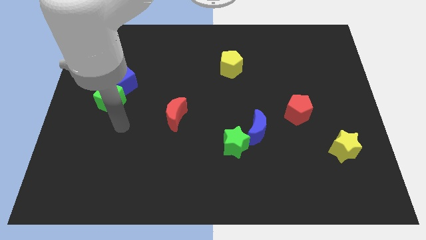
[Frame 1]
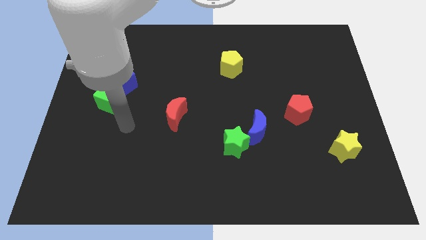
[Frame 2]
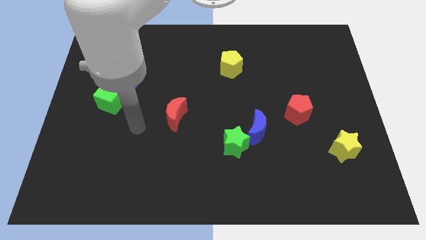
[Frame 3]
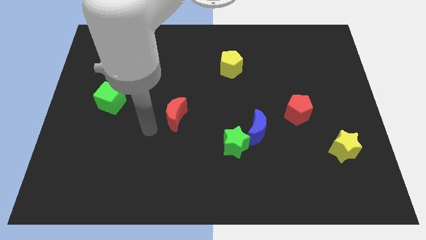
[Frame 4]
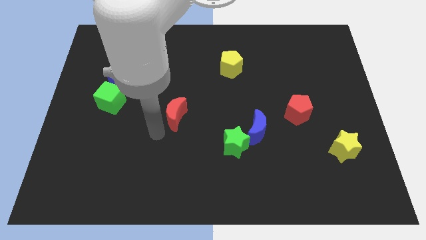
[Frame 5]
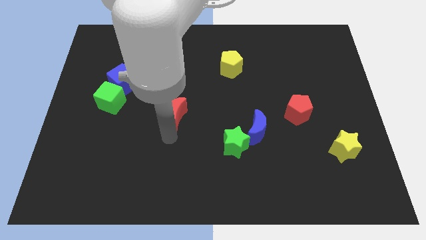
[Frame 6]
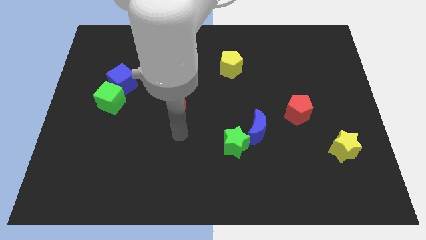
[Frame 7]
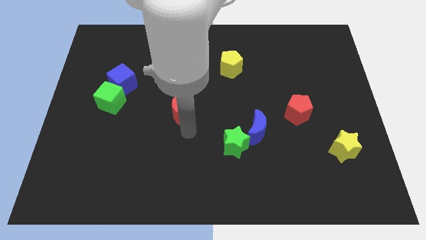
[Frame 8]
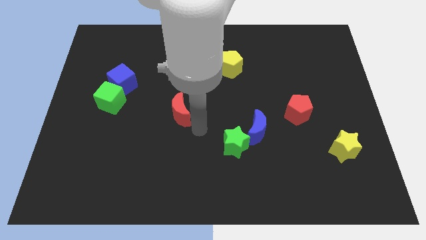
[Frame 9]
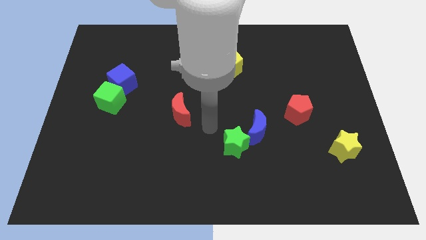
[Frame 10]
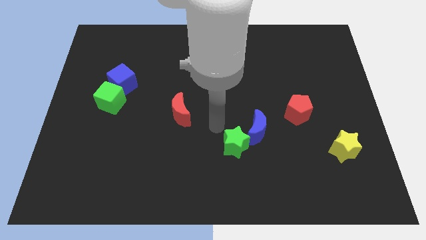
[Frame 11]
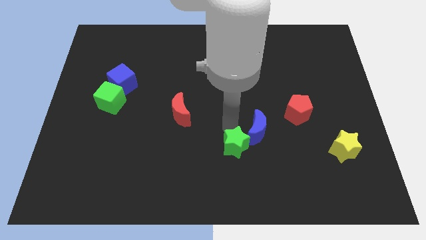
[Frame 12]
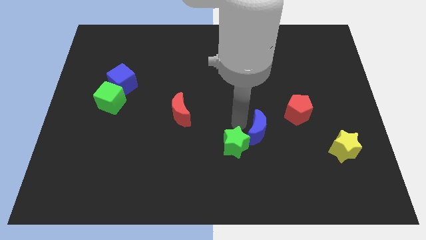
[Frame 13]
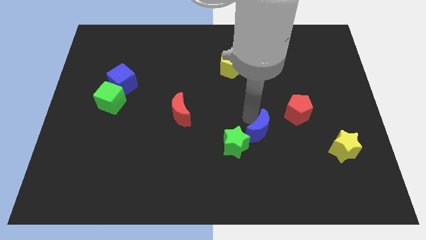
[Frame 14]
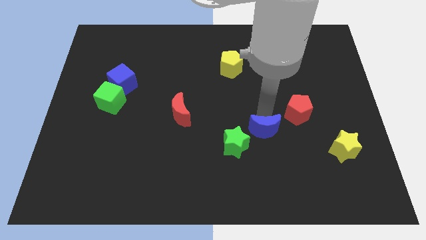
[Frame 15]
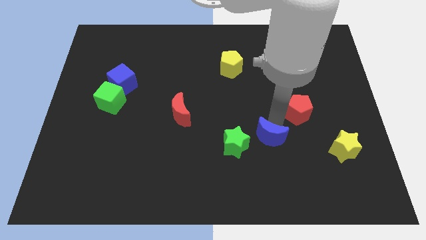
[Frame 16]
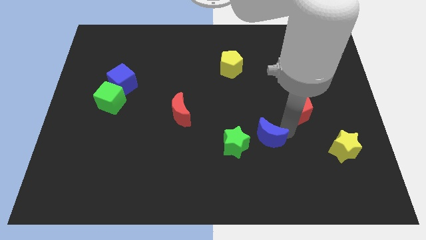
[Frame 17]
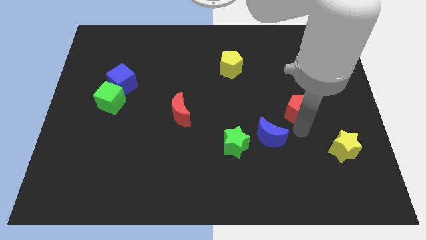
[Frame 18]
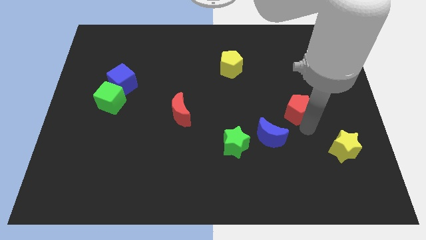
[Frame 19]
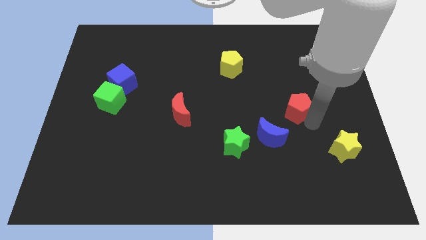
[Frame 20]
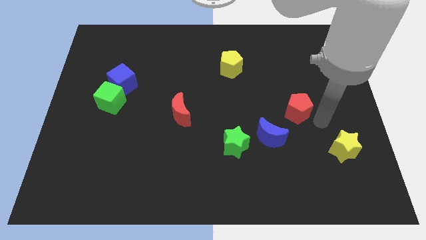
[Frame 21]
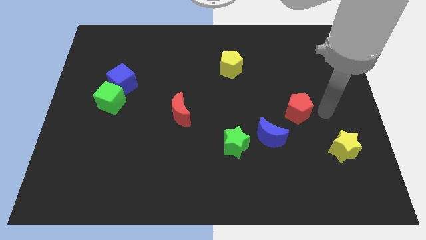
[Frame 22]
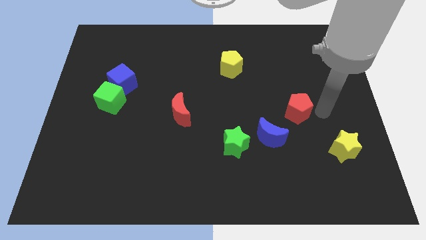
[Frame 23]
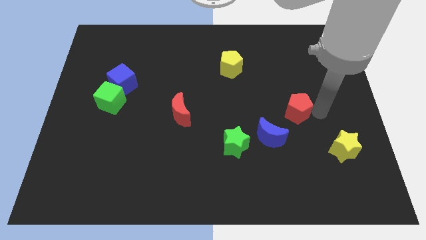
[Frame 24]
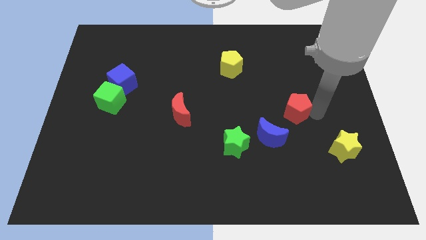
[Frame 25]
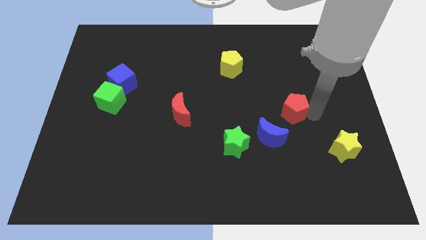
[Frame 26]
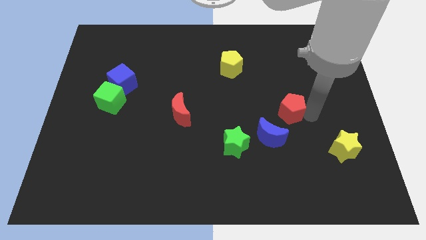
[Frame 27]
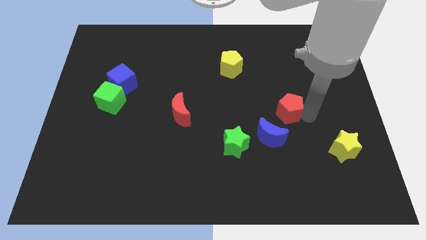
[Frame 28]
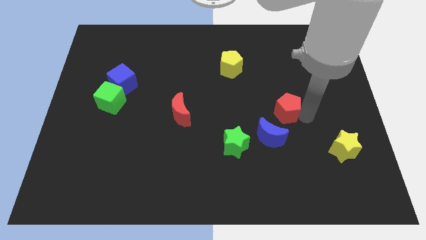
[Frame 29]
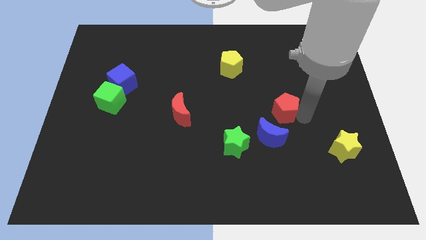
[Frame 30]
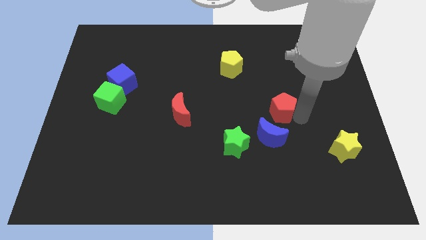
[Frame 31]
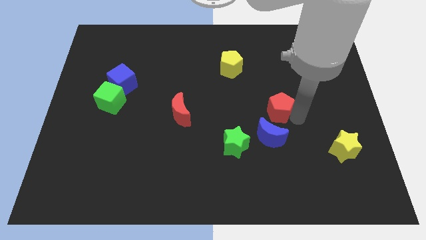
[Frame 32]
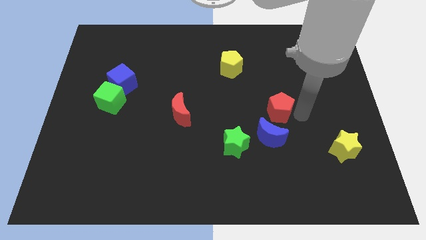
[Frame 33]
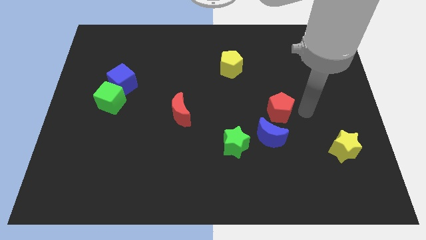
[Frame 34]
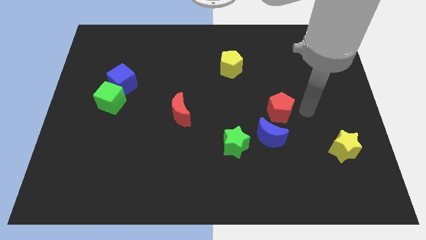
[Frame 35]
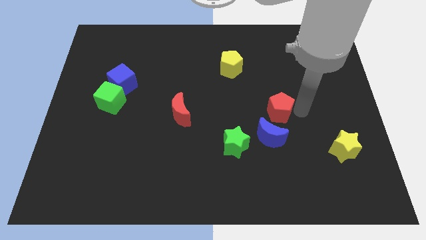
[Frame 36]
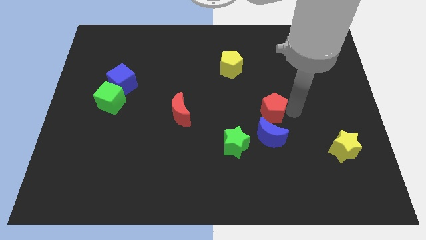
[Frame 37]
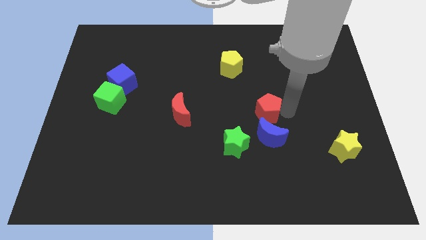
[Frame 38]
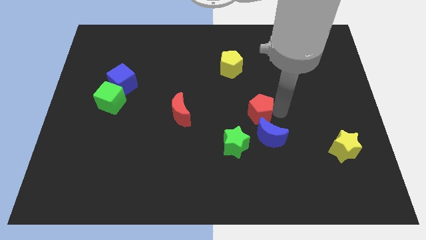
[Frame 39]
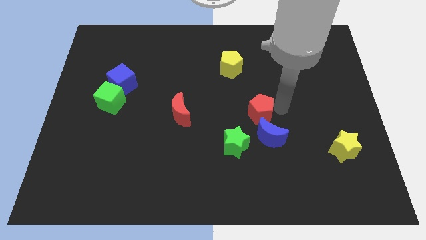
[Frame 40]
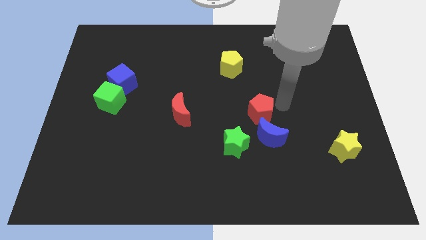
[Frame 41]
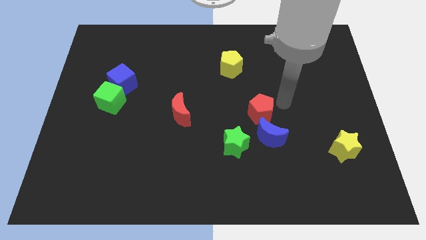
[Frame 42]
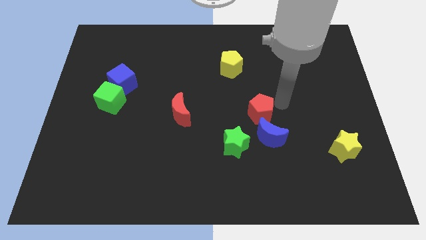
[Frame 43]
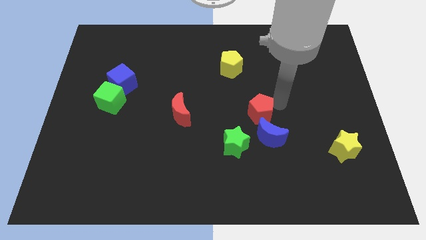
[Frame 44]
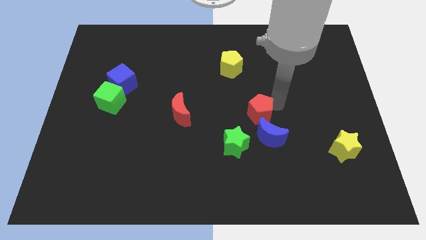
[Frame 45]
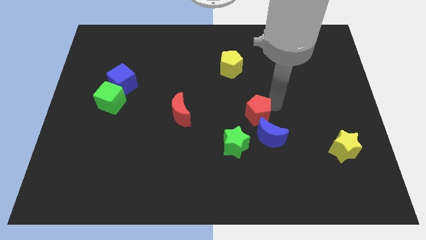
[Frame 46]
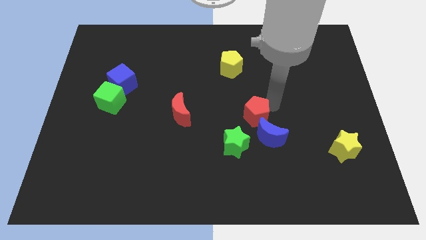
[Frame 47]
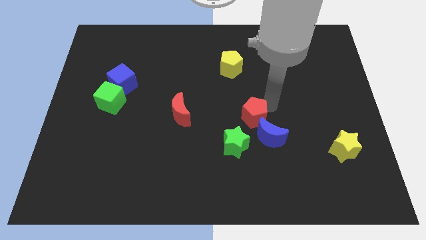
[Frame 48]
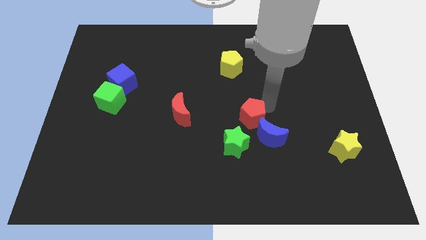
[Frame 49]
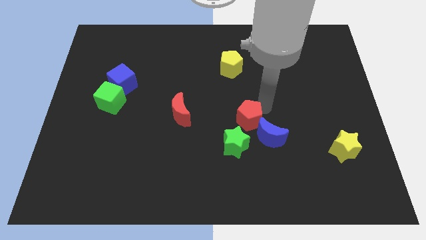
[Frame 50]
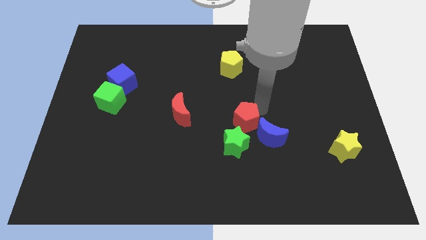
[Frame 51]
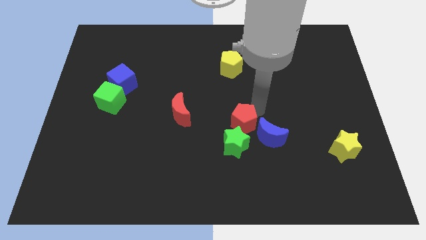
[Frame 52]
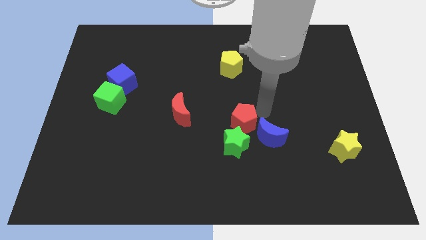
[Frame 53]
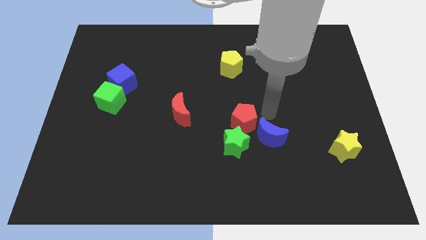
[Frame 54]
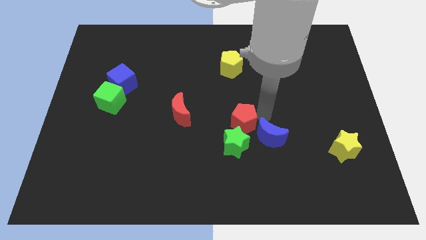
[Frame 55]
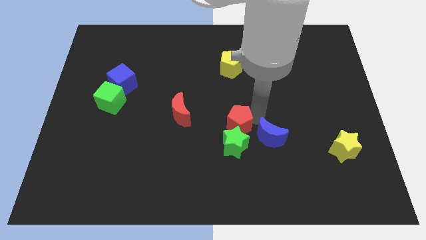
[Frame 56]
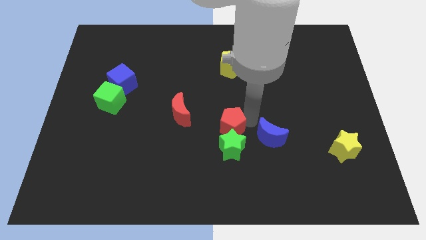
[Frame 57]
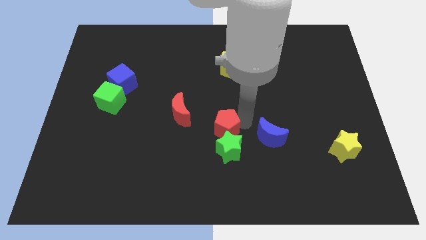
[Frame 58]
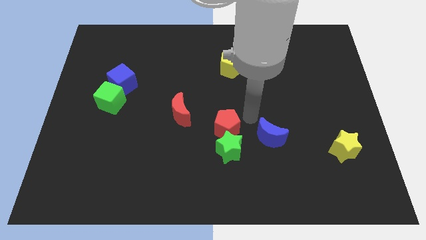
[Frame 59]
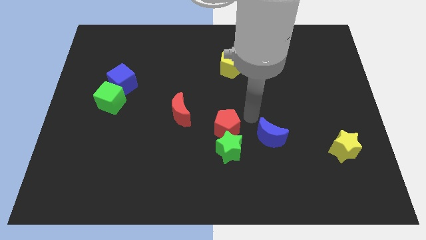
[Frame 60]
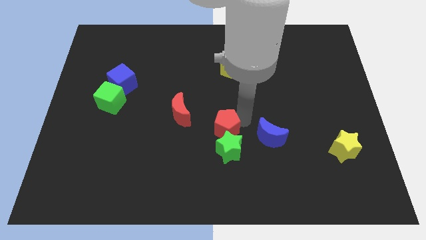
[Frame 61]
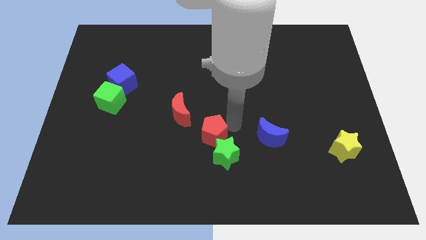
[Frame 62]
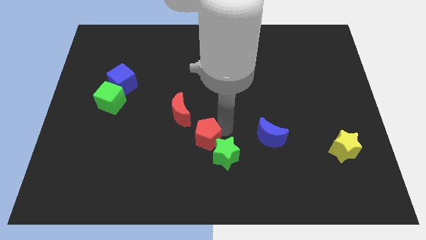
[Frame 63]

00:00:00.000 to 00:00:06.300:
put the red pentagon just left of the green star

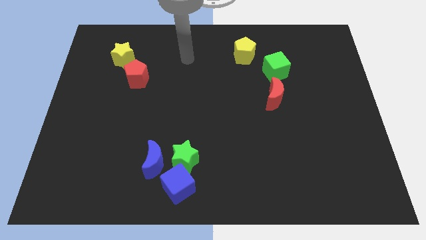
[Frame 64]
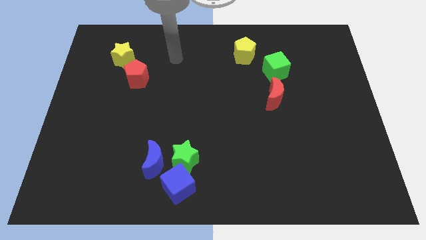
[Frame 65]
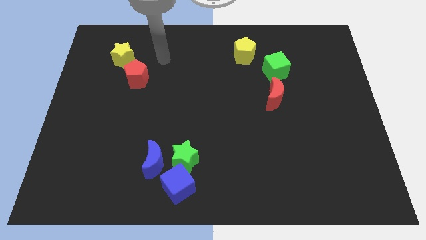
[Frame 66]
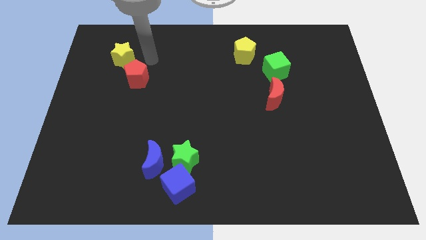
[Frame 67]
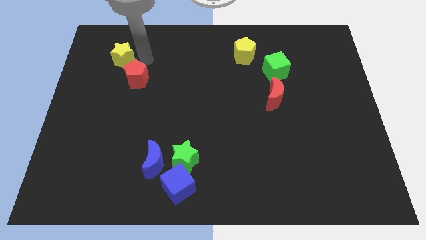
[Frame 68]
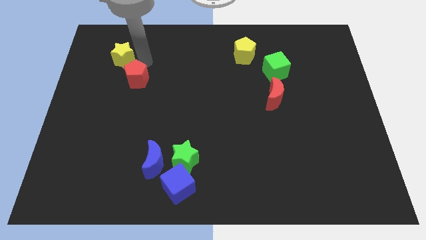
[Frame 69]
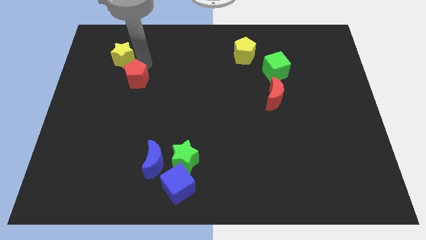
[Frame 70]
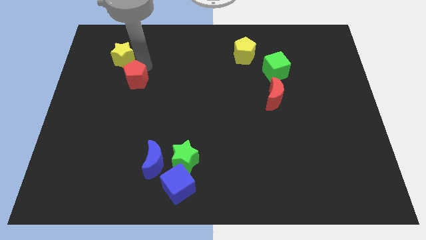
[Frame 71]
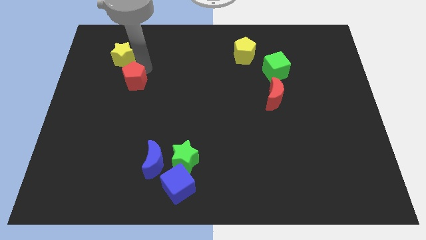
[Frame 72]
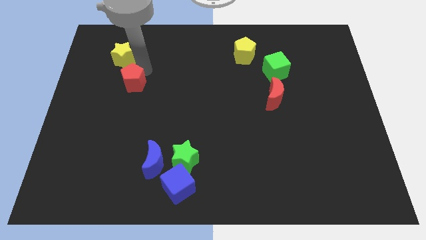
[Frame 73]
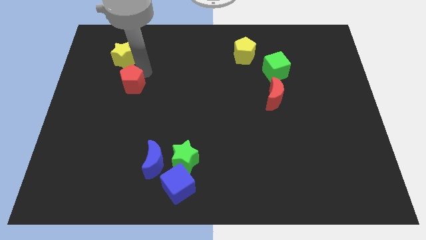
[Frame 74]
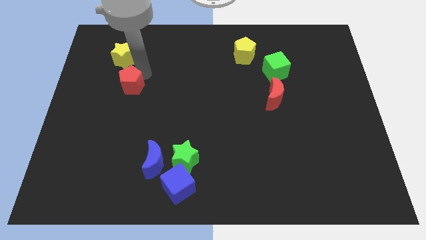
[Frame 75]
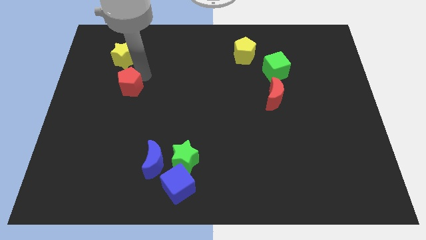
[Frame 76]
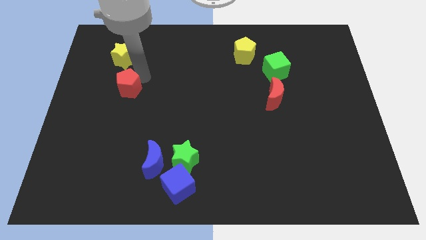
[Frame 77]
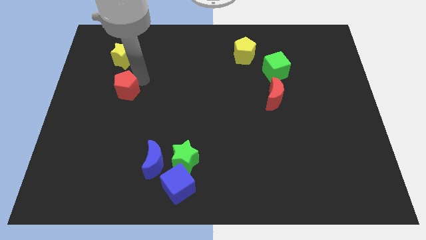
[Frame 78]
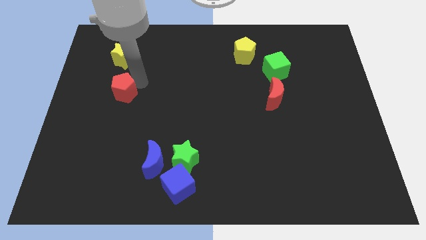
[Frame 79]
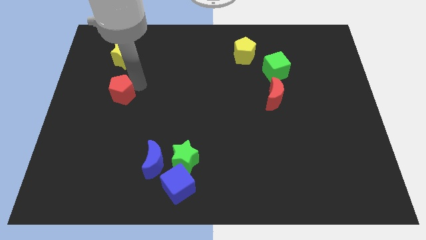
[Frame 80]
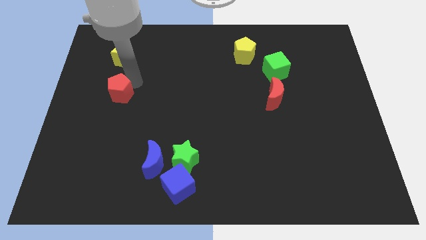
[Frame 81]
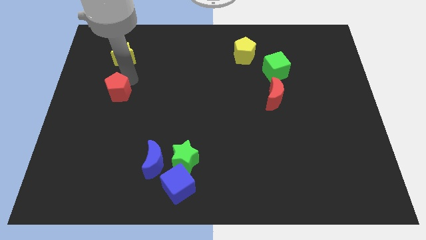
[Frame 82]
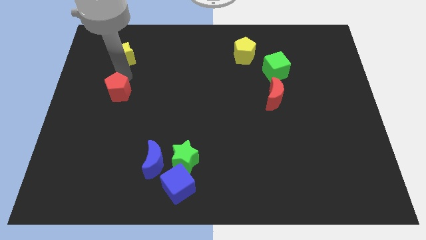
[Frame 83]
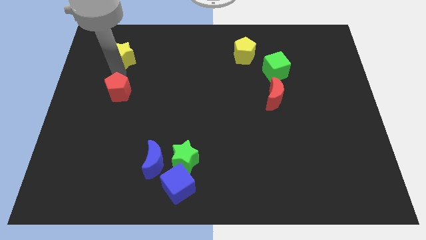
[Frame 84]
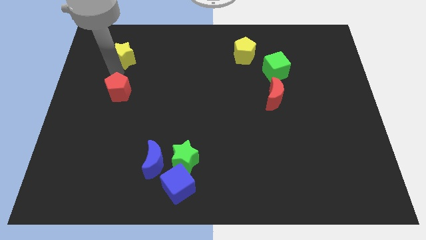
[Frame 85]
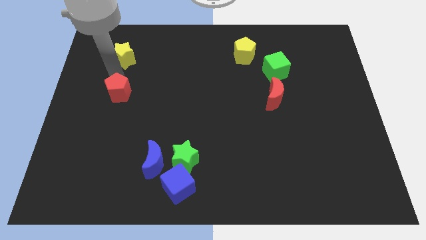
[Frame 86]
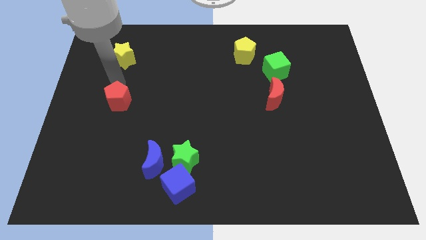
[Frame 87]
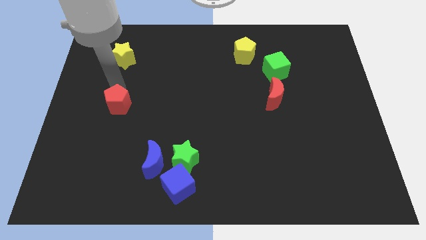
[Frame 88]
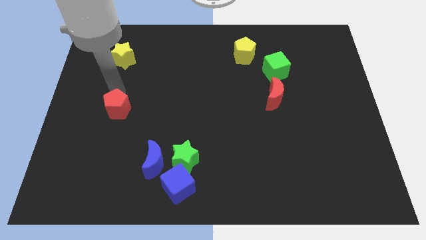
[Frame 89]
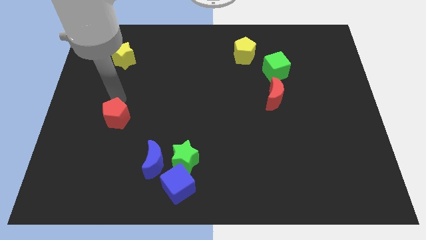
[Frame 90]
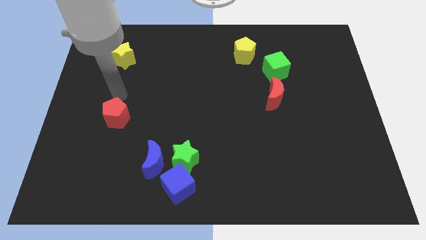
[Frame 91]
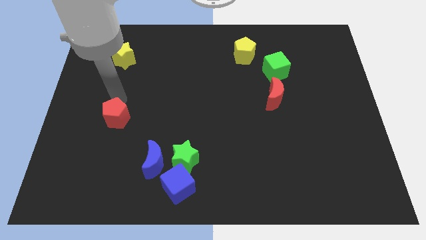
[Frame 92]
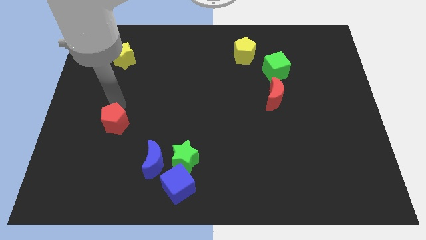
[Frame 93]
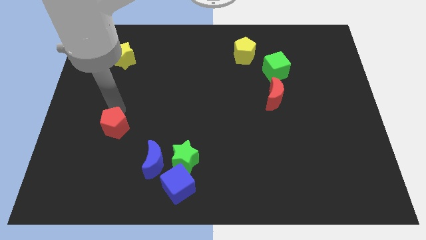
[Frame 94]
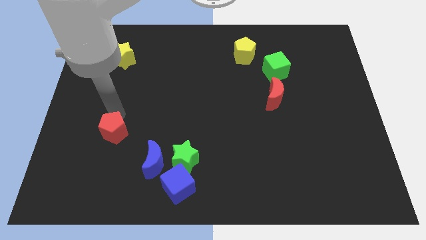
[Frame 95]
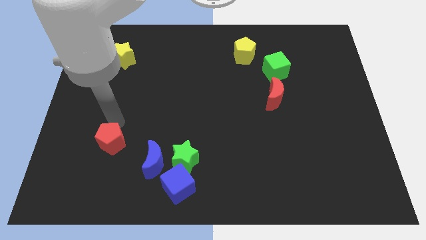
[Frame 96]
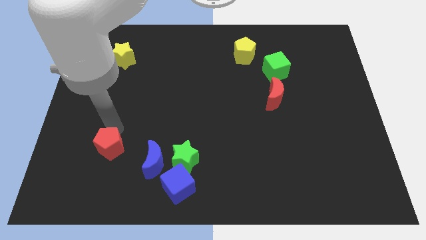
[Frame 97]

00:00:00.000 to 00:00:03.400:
move the red pentagon just left of the blue moon
